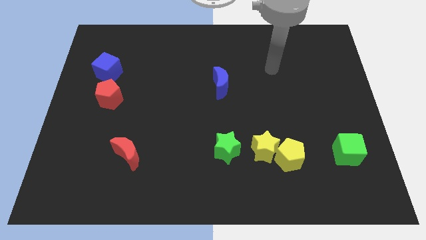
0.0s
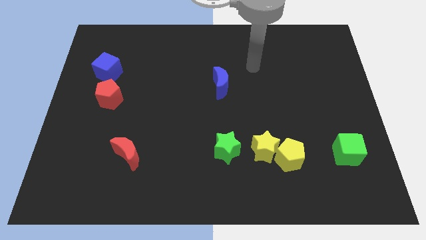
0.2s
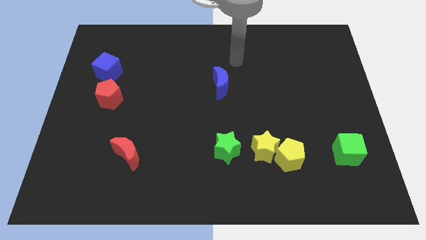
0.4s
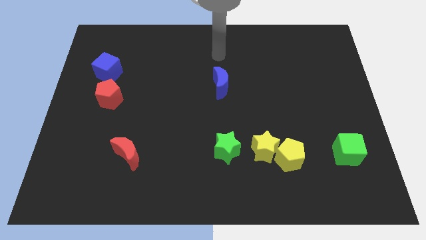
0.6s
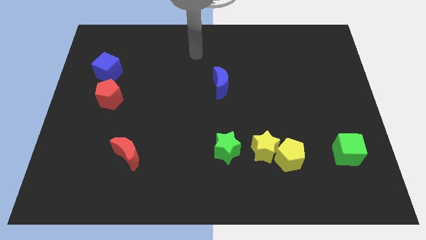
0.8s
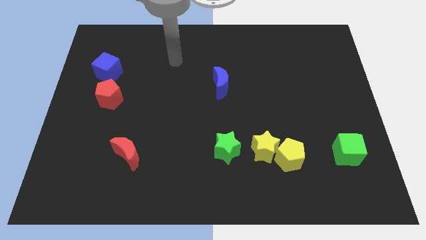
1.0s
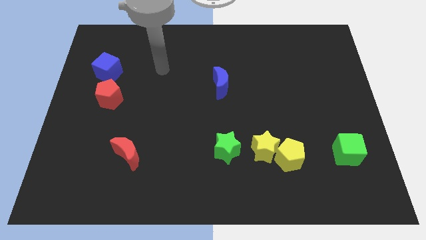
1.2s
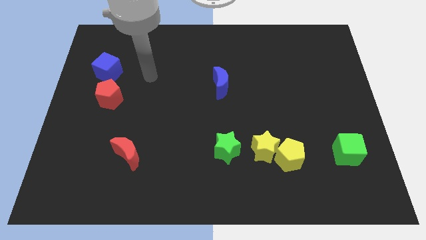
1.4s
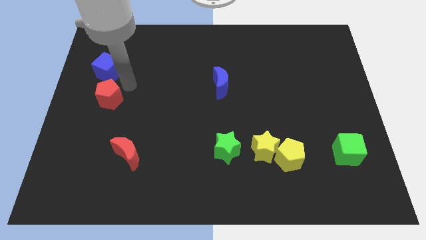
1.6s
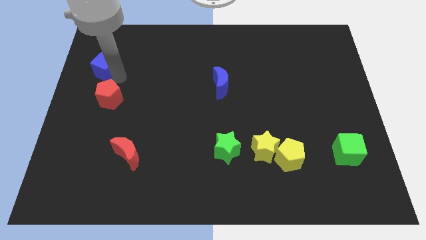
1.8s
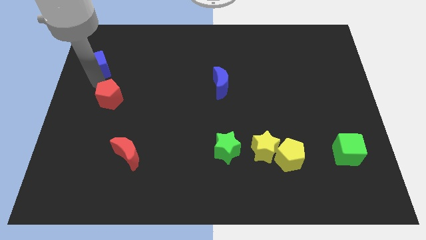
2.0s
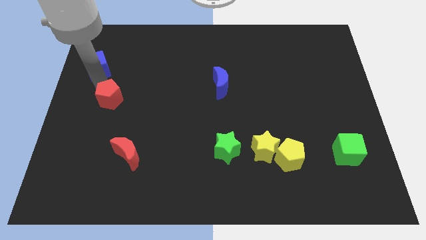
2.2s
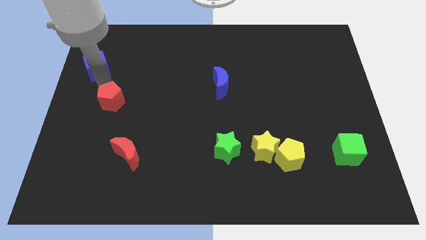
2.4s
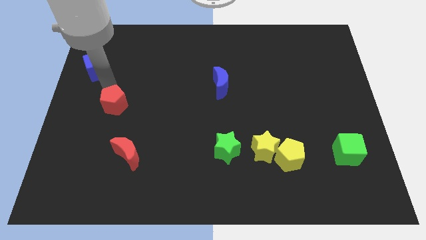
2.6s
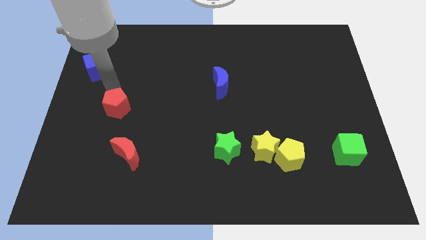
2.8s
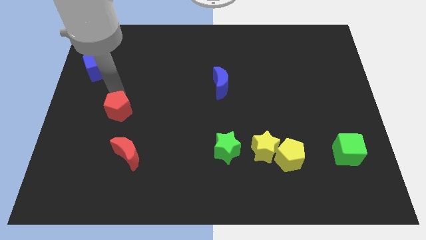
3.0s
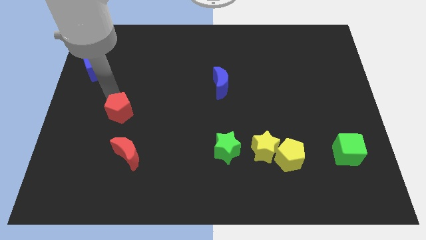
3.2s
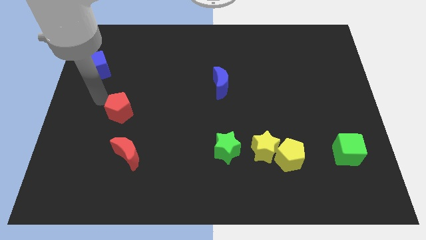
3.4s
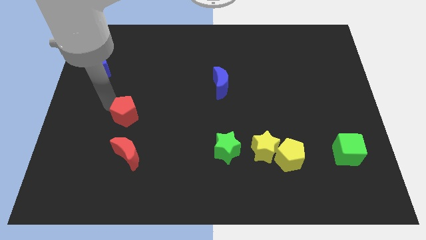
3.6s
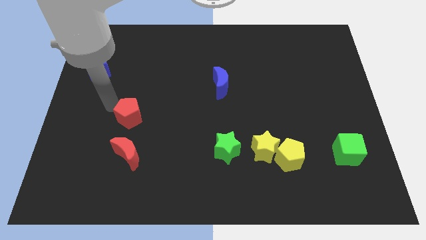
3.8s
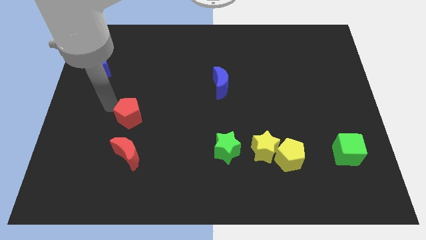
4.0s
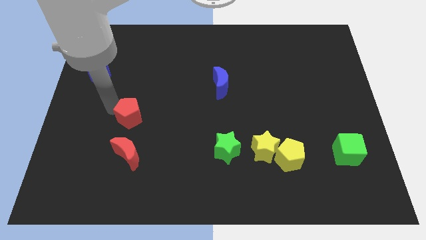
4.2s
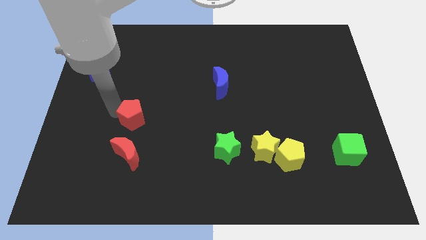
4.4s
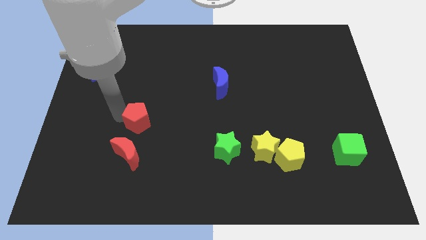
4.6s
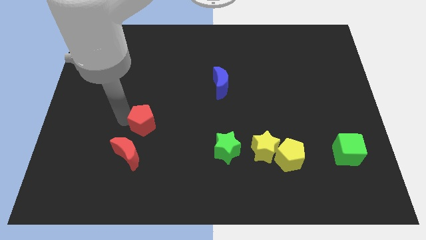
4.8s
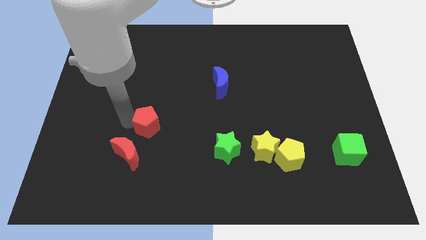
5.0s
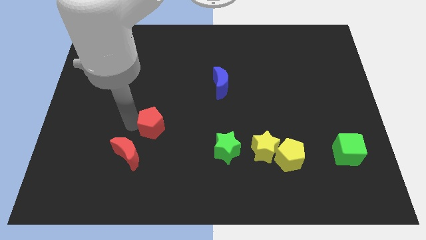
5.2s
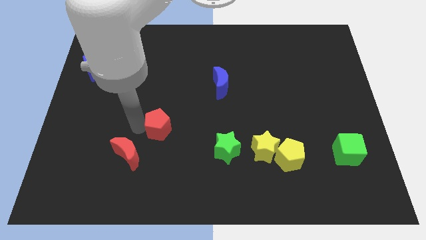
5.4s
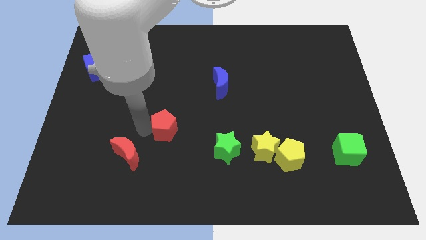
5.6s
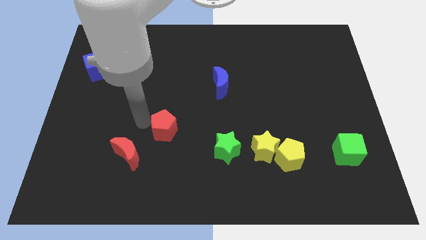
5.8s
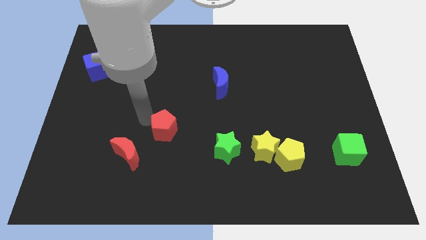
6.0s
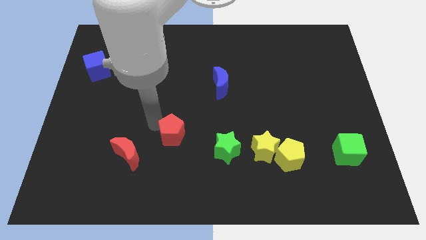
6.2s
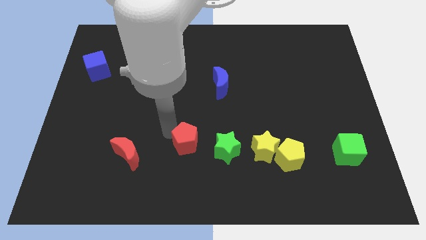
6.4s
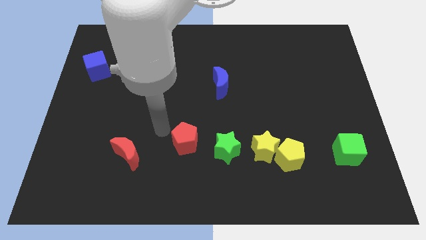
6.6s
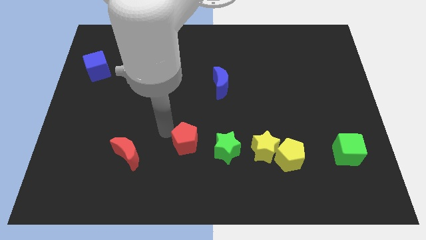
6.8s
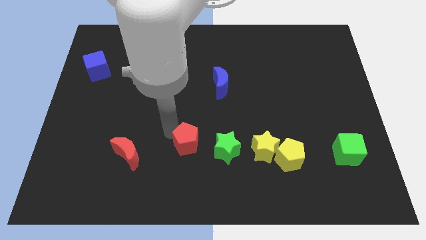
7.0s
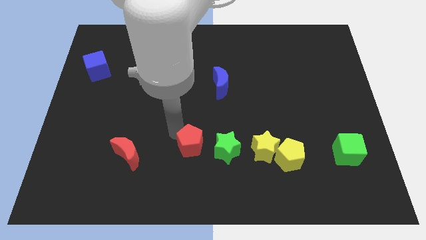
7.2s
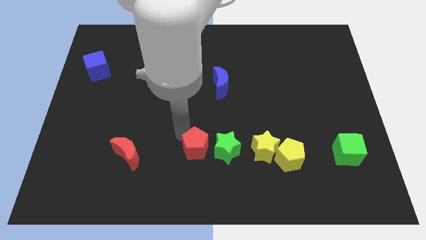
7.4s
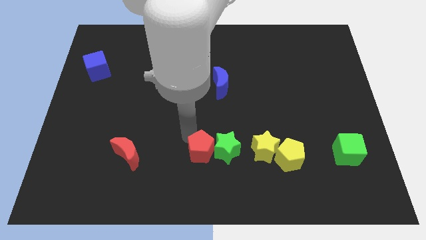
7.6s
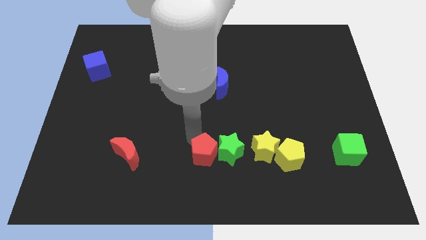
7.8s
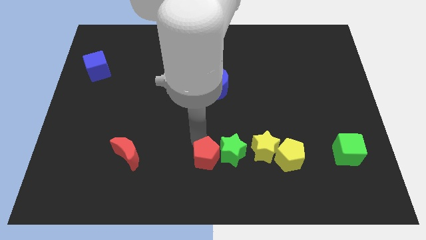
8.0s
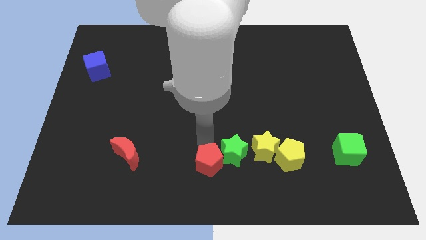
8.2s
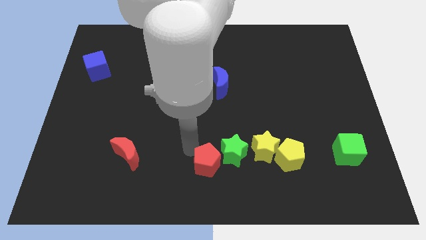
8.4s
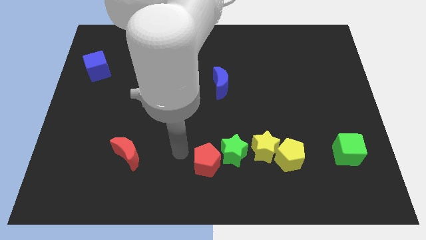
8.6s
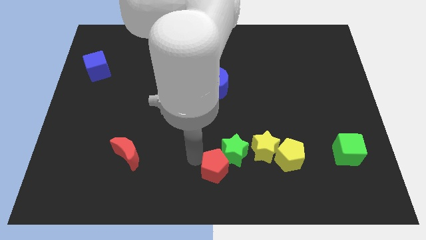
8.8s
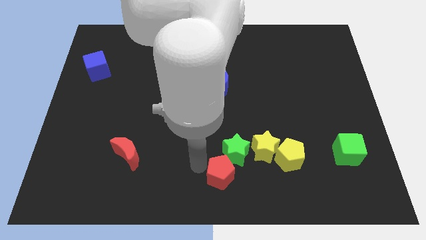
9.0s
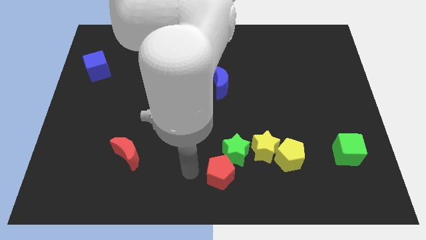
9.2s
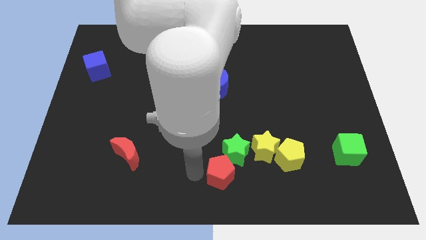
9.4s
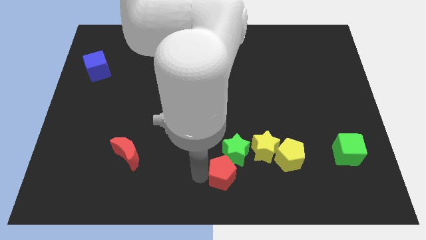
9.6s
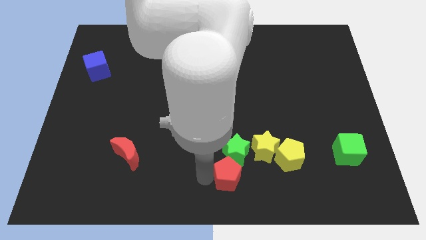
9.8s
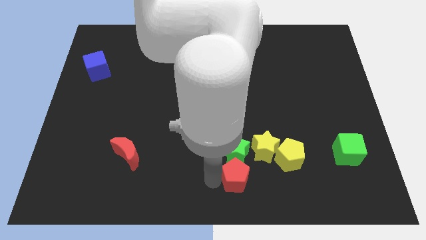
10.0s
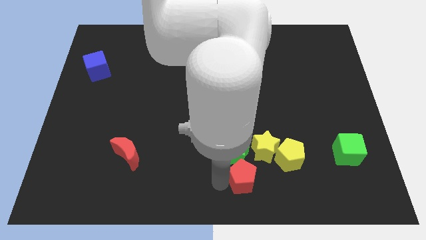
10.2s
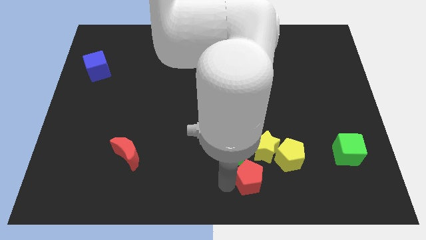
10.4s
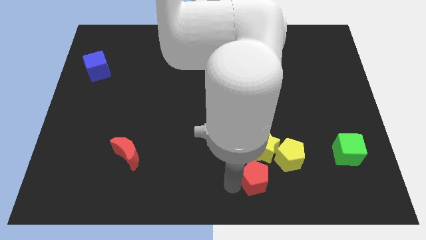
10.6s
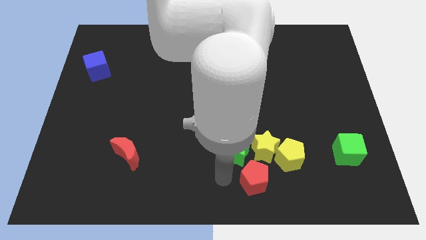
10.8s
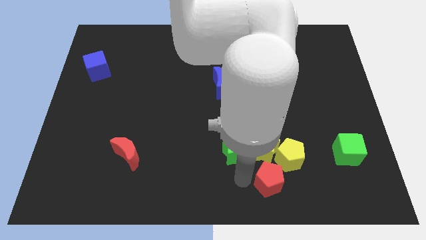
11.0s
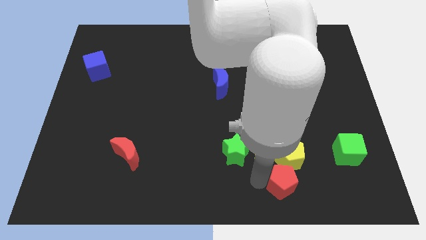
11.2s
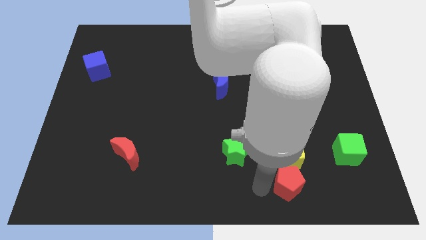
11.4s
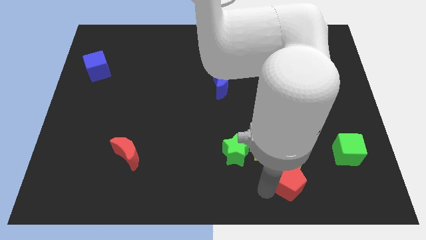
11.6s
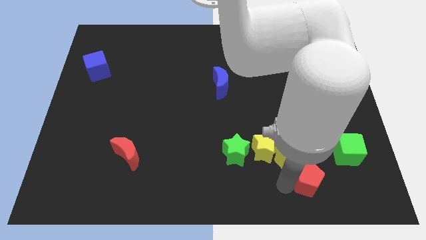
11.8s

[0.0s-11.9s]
move the red pentagon to the bottom left side of the green cube

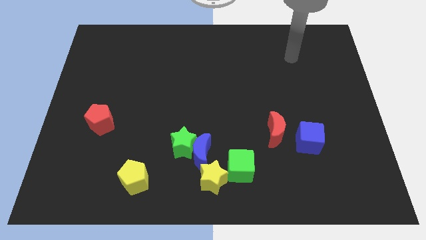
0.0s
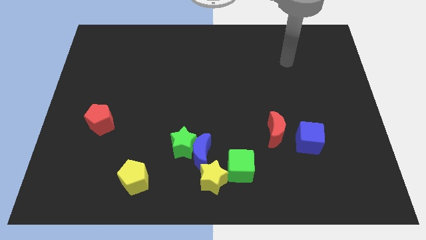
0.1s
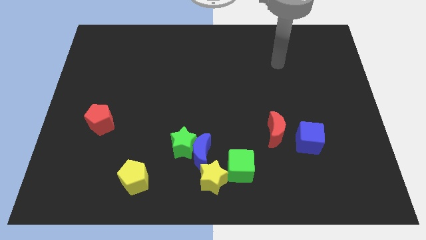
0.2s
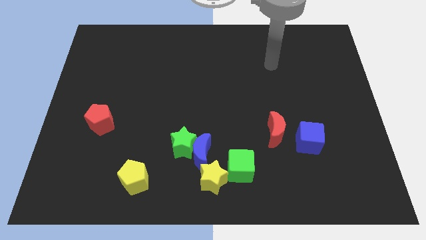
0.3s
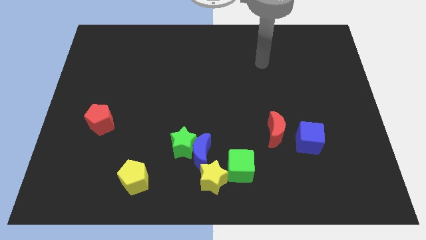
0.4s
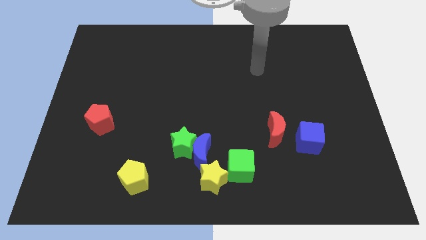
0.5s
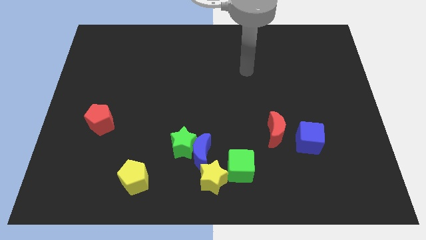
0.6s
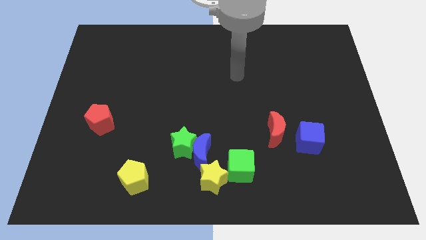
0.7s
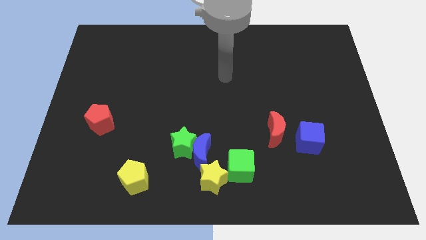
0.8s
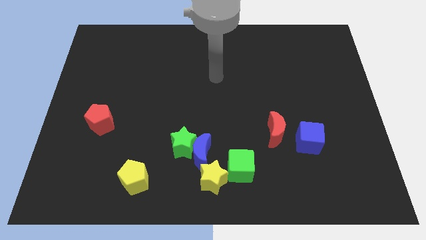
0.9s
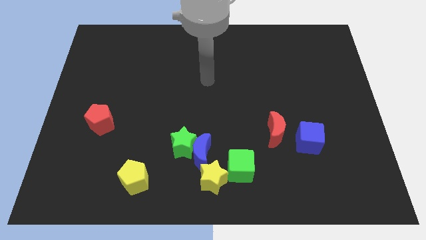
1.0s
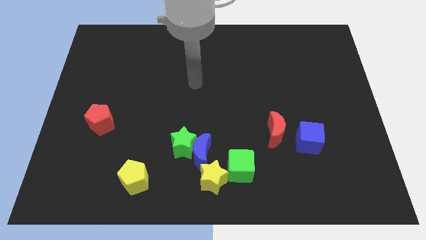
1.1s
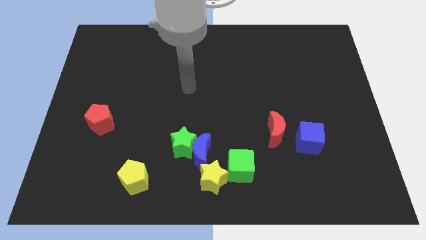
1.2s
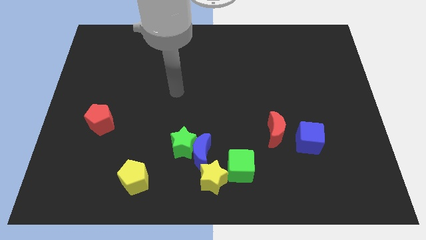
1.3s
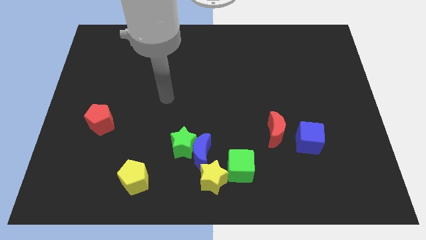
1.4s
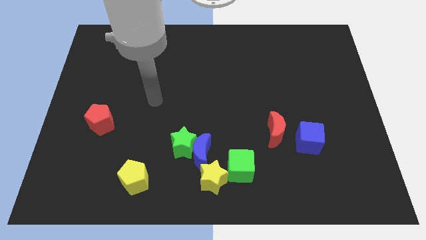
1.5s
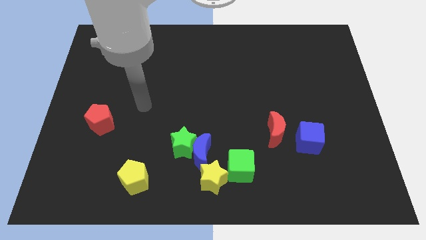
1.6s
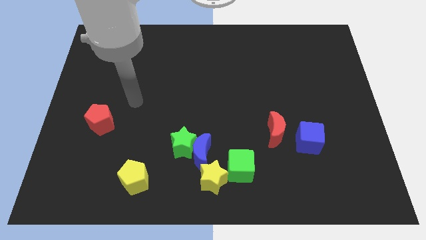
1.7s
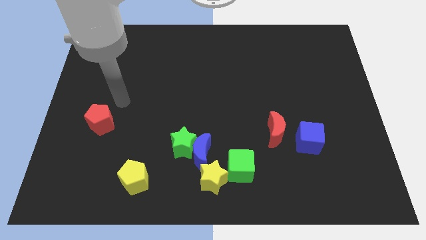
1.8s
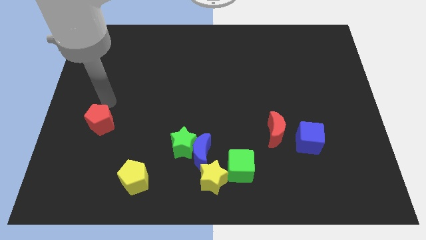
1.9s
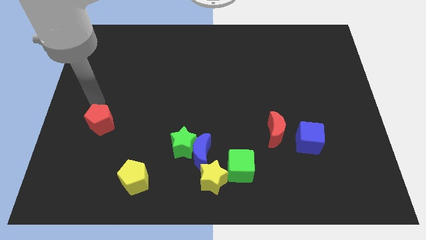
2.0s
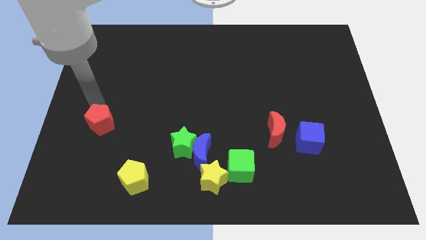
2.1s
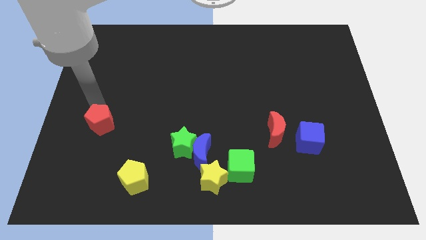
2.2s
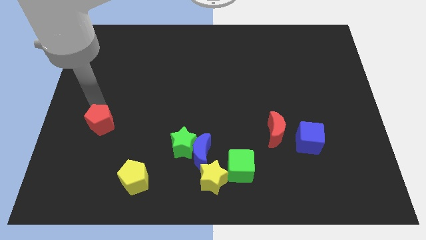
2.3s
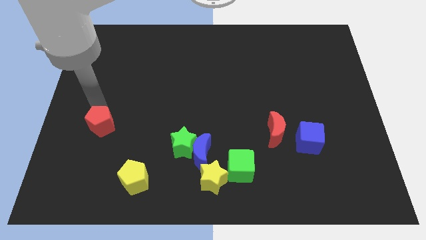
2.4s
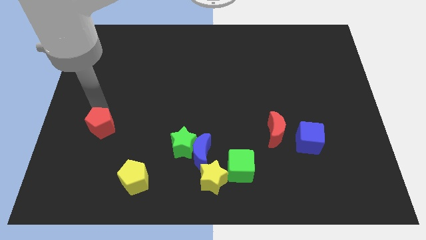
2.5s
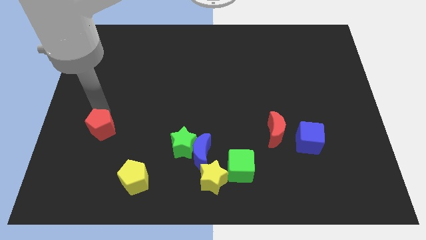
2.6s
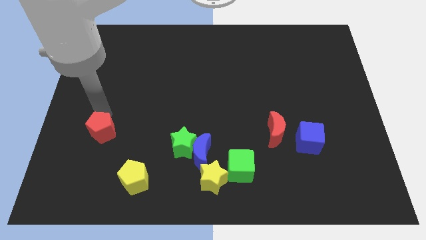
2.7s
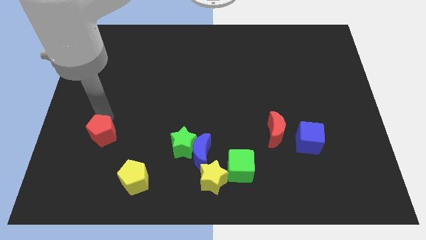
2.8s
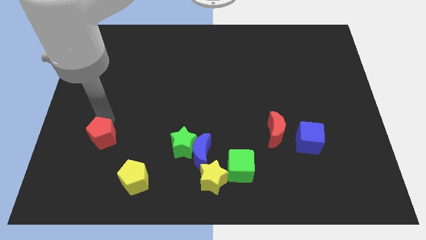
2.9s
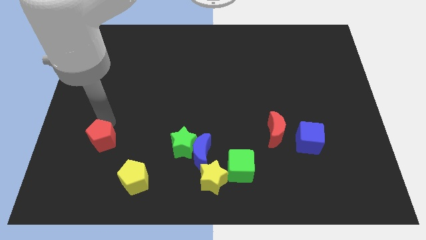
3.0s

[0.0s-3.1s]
push the red pentagon to the top left side of the yellow pentagon
